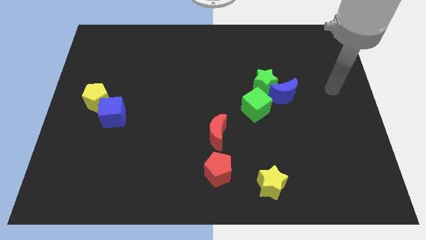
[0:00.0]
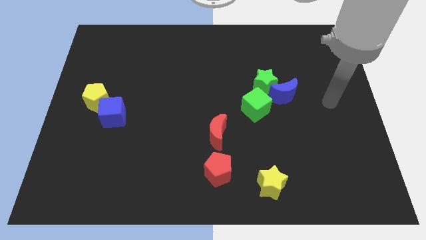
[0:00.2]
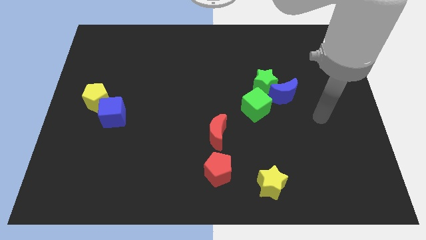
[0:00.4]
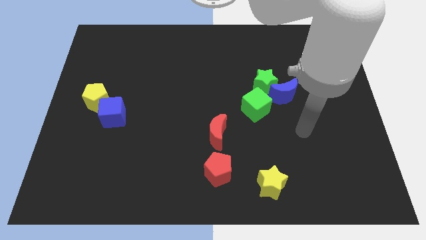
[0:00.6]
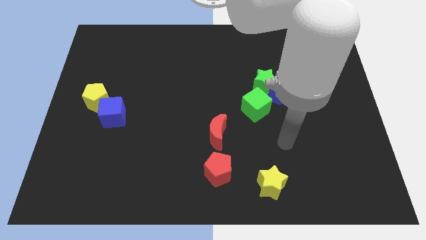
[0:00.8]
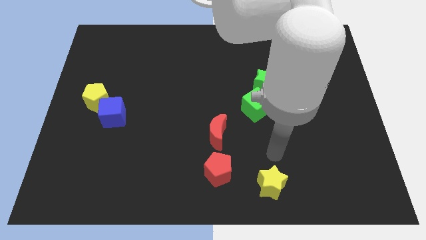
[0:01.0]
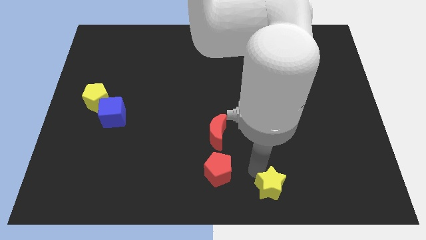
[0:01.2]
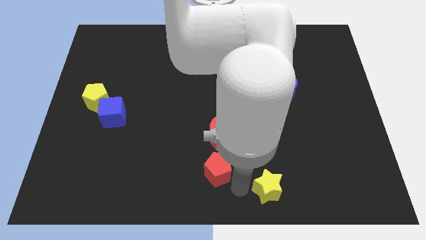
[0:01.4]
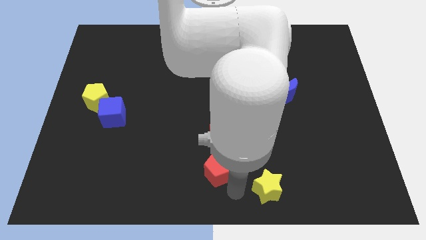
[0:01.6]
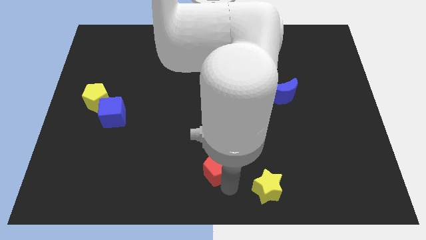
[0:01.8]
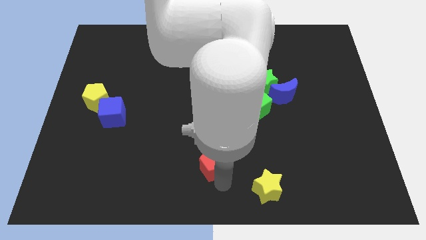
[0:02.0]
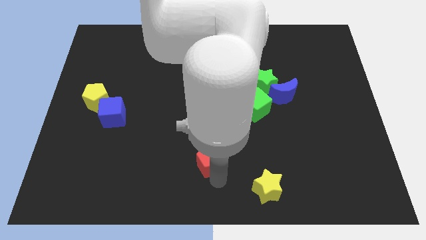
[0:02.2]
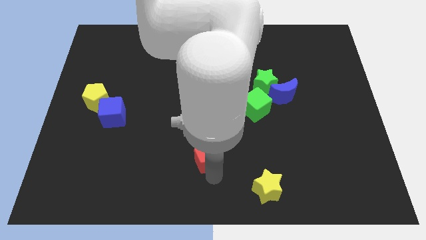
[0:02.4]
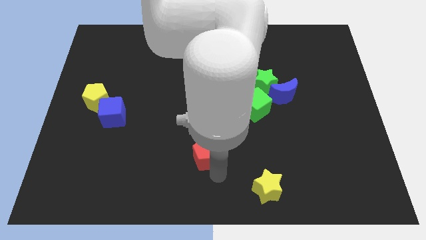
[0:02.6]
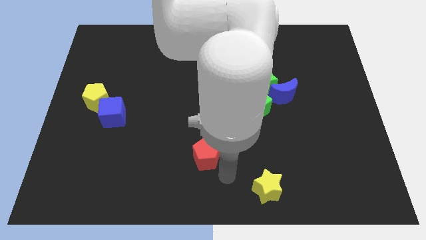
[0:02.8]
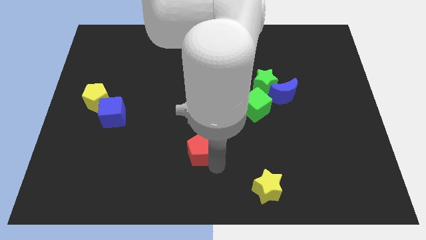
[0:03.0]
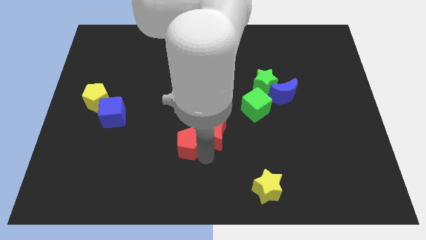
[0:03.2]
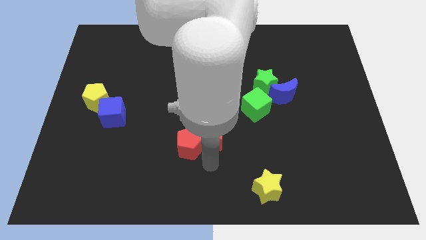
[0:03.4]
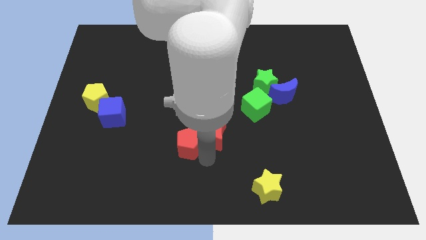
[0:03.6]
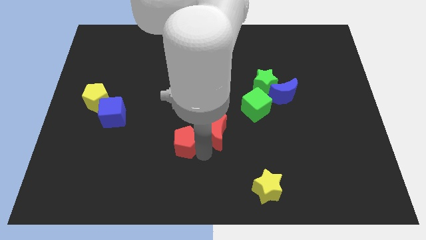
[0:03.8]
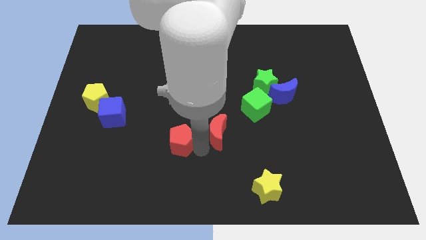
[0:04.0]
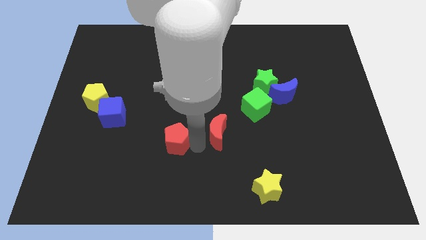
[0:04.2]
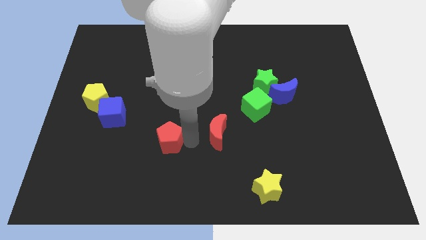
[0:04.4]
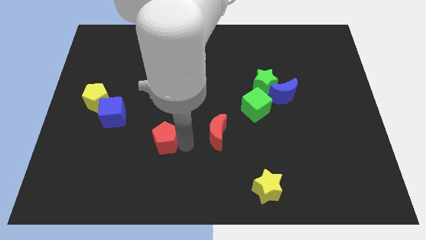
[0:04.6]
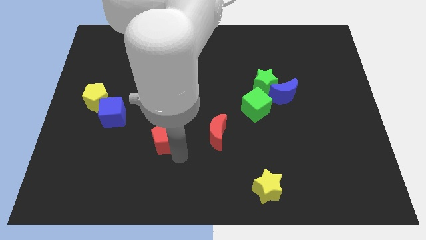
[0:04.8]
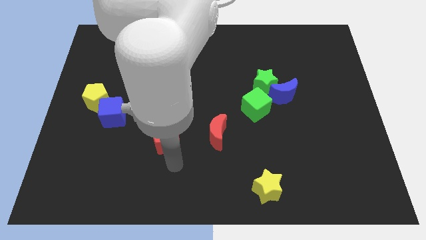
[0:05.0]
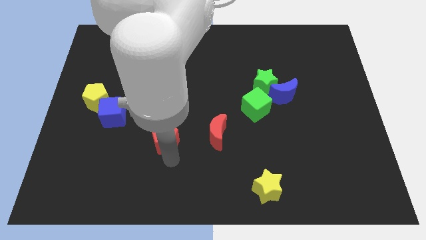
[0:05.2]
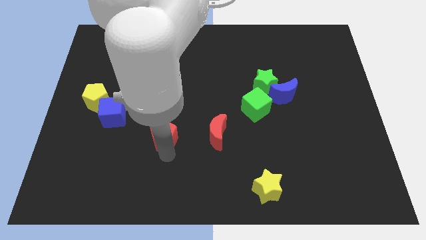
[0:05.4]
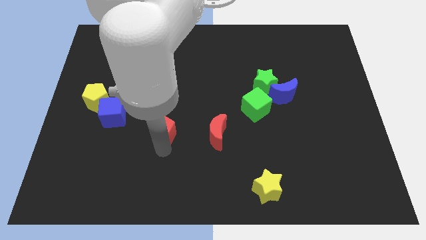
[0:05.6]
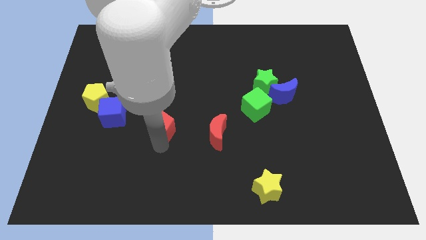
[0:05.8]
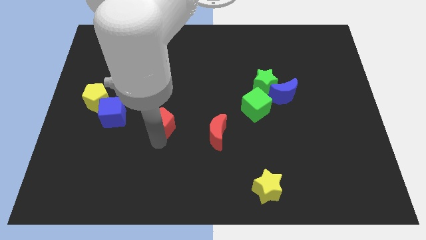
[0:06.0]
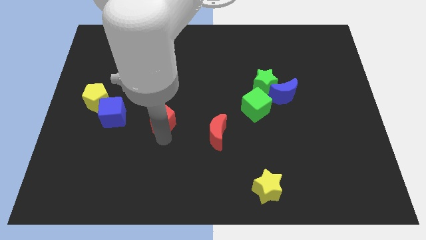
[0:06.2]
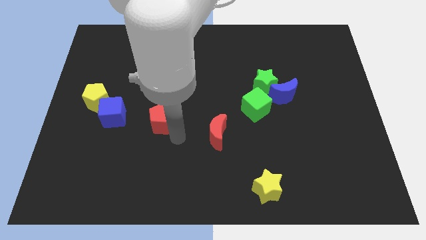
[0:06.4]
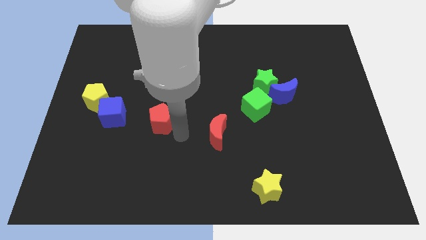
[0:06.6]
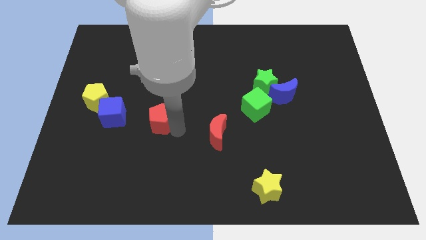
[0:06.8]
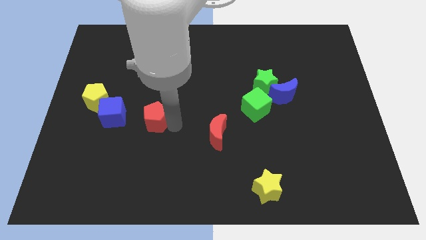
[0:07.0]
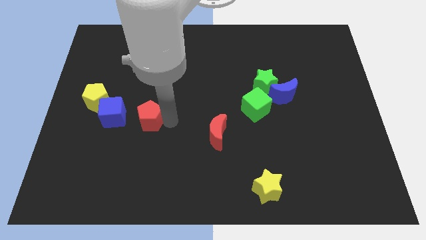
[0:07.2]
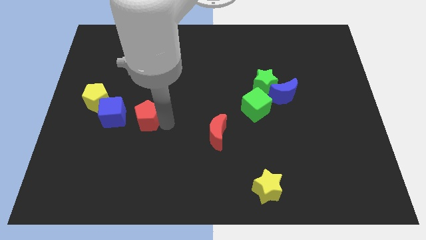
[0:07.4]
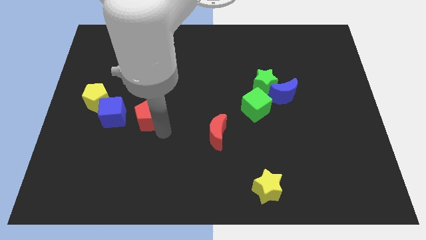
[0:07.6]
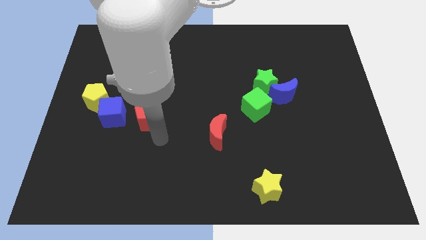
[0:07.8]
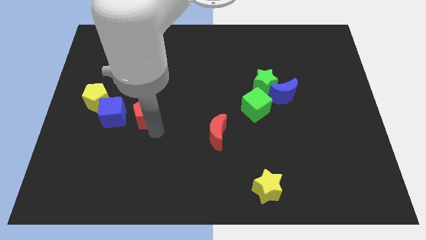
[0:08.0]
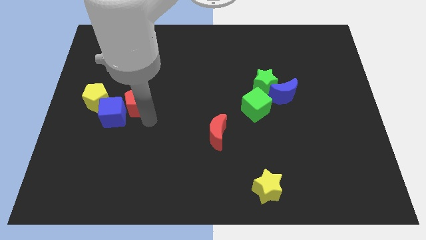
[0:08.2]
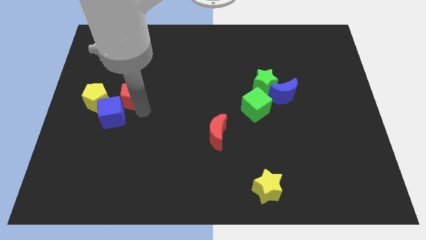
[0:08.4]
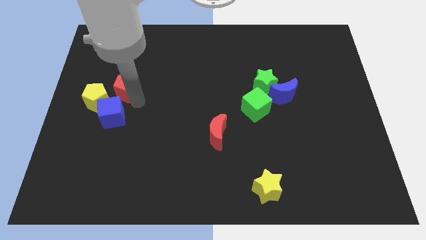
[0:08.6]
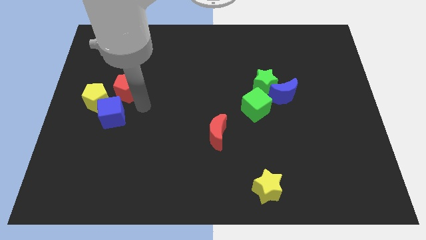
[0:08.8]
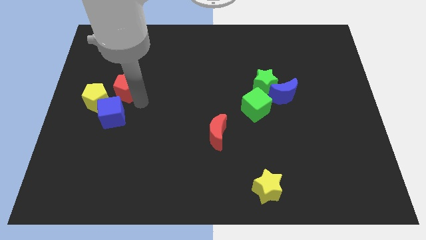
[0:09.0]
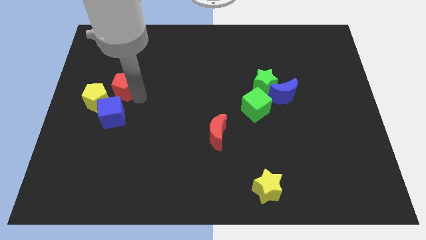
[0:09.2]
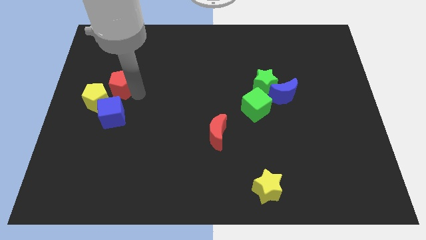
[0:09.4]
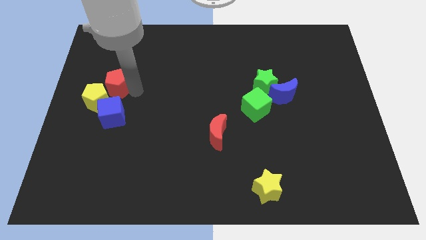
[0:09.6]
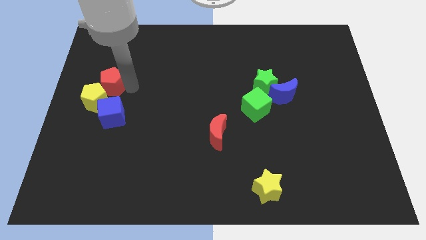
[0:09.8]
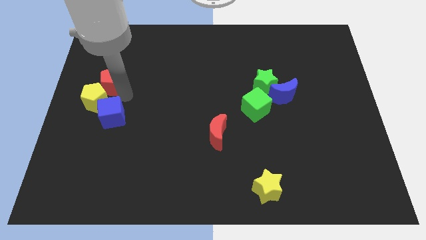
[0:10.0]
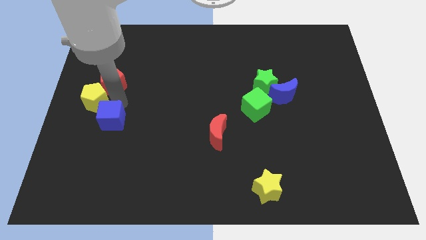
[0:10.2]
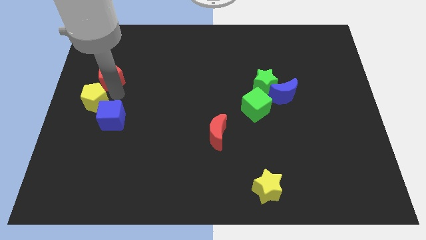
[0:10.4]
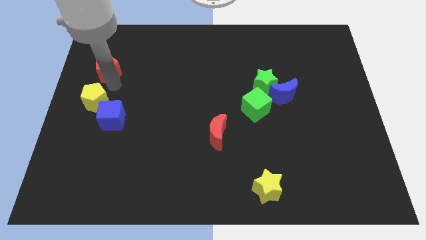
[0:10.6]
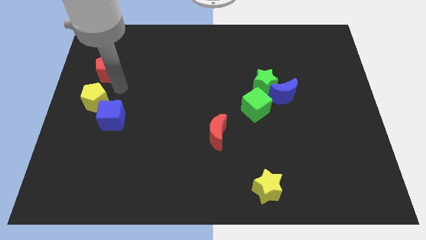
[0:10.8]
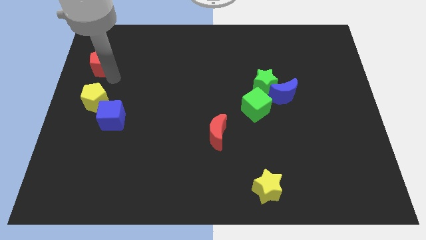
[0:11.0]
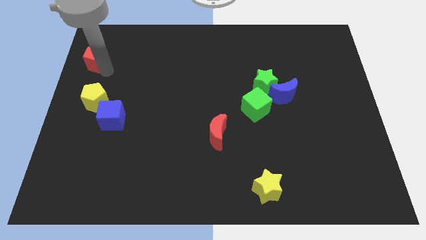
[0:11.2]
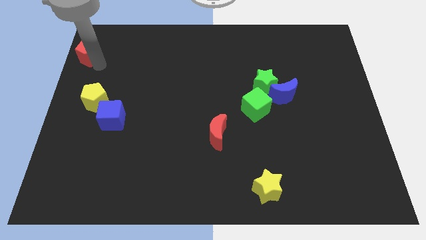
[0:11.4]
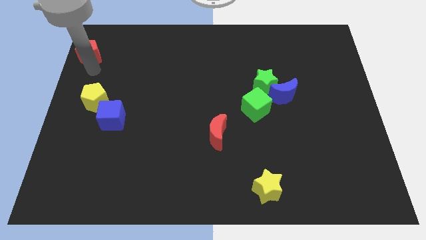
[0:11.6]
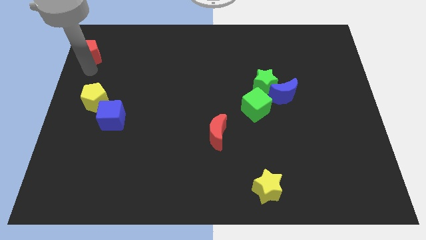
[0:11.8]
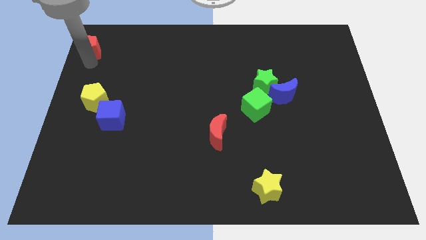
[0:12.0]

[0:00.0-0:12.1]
put the red pentagon to the upper left corner

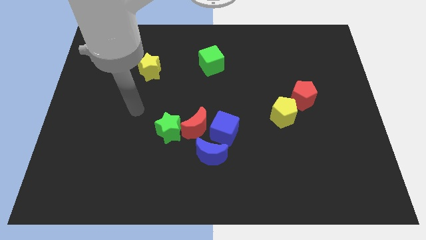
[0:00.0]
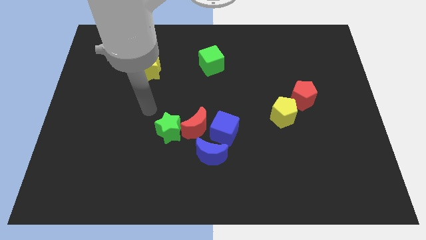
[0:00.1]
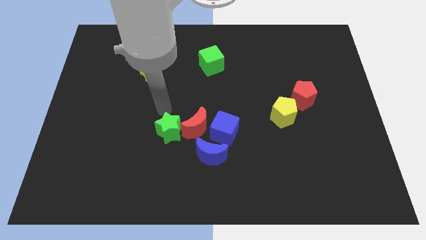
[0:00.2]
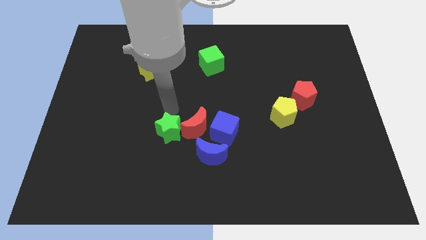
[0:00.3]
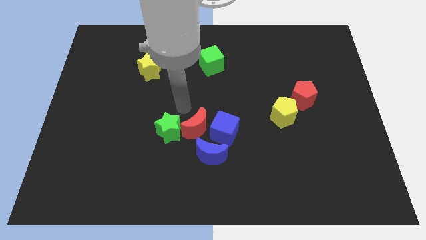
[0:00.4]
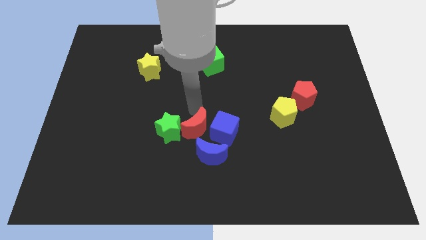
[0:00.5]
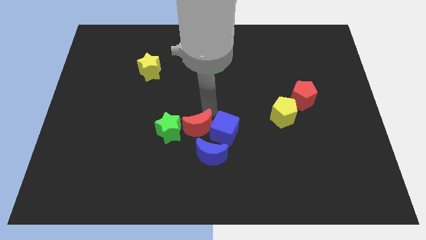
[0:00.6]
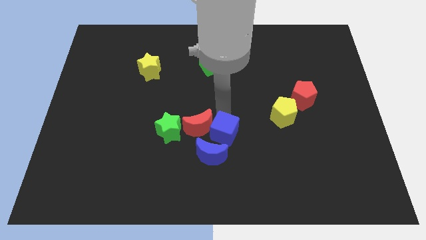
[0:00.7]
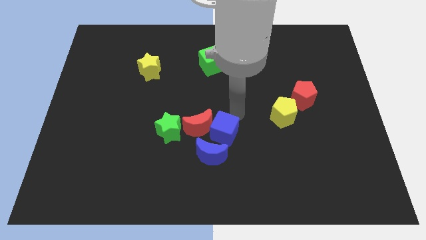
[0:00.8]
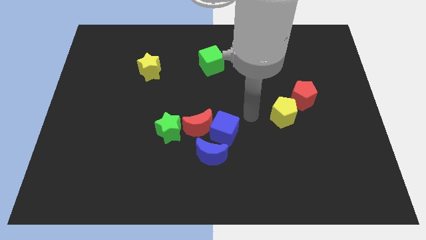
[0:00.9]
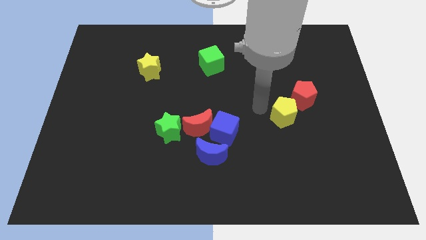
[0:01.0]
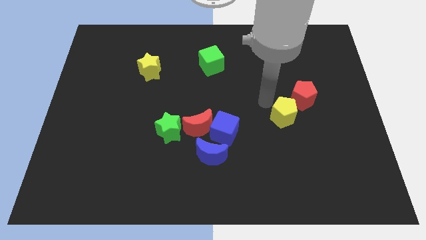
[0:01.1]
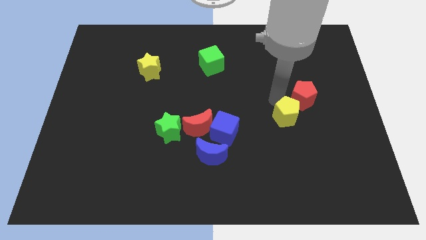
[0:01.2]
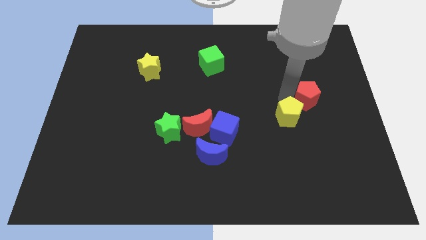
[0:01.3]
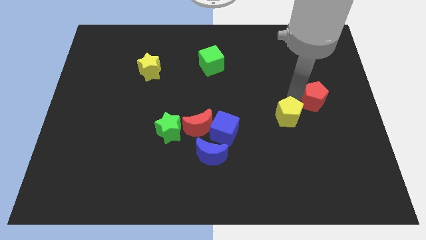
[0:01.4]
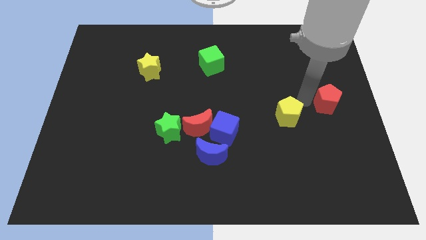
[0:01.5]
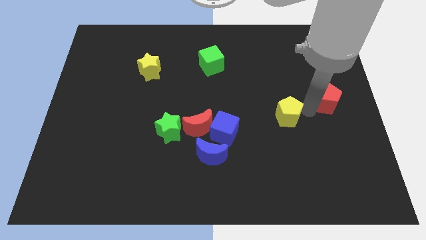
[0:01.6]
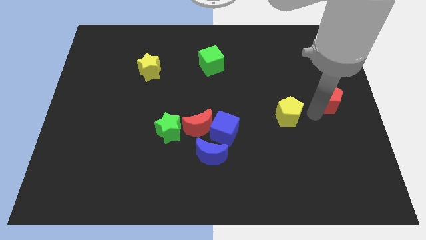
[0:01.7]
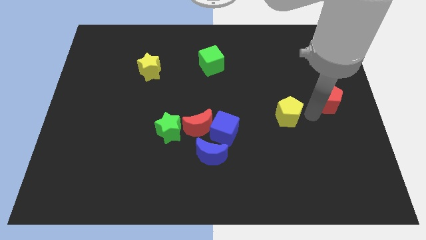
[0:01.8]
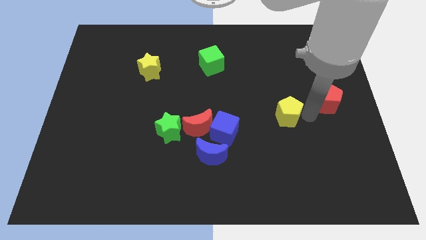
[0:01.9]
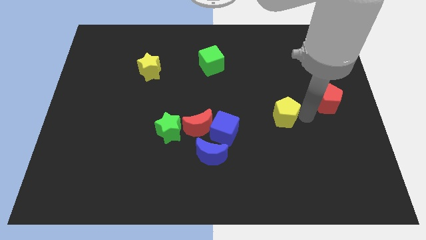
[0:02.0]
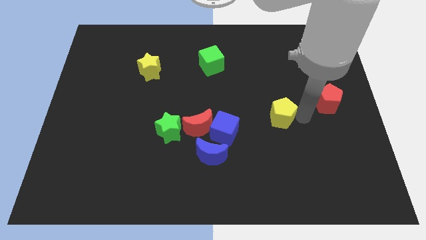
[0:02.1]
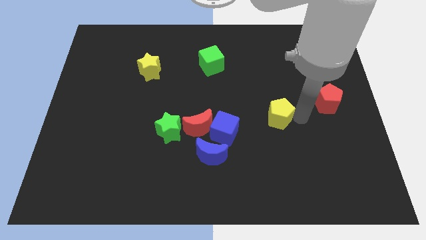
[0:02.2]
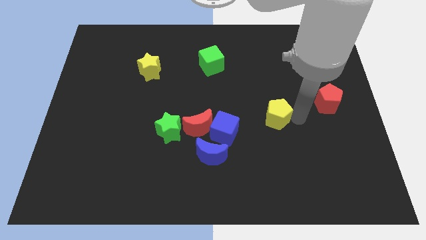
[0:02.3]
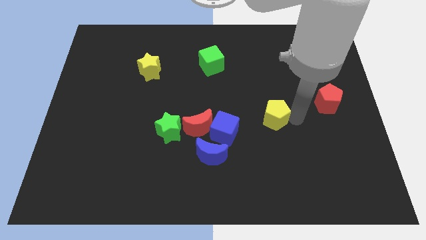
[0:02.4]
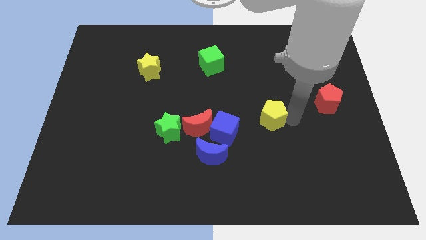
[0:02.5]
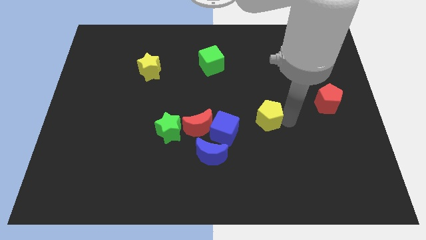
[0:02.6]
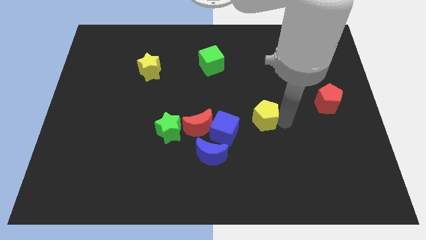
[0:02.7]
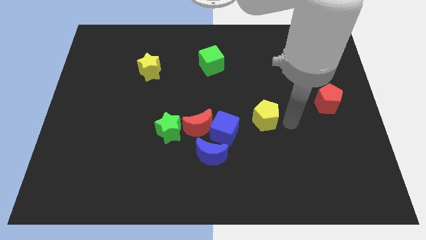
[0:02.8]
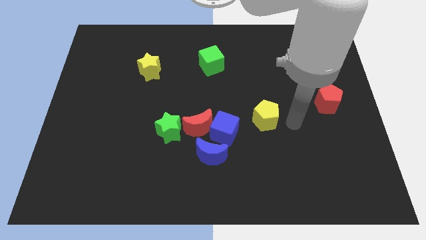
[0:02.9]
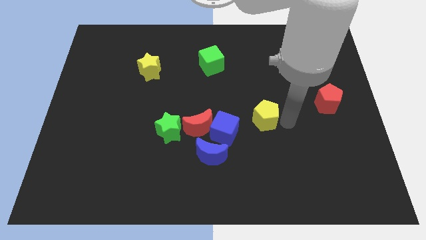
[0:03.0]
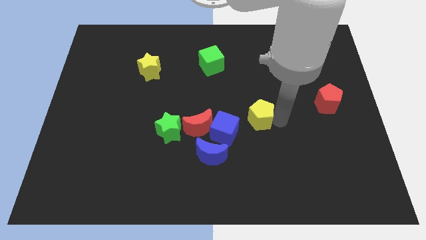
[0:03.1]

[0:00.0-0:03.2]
put the yellow pentagon to the middle of the board
